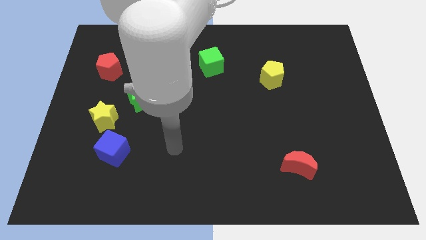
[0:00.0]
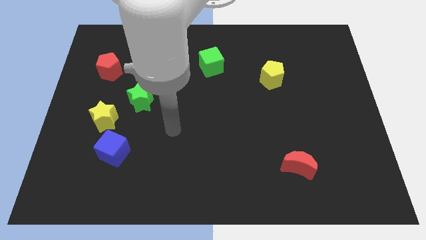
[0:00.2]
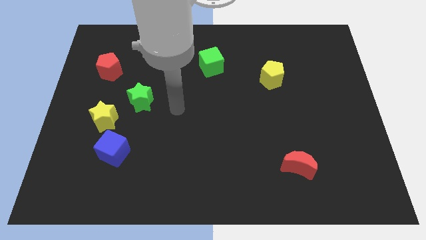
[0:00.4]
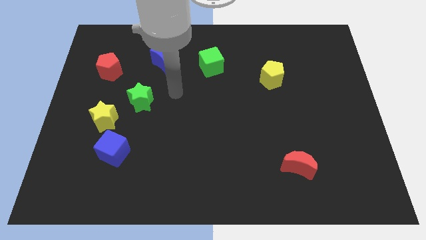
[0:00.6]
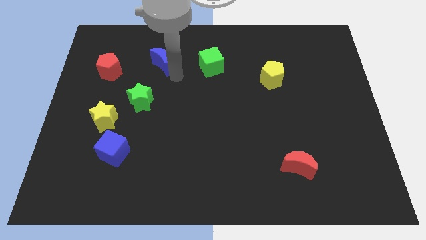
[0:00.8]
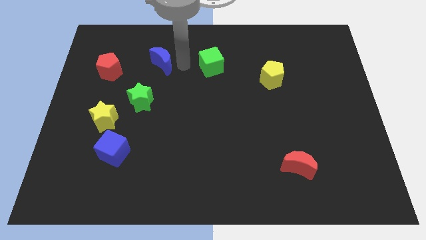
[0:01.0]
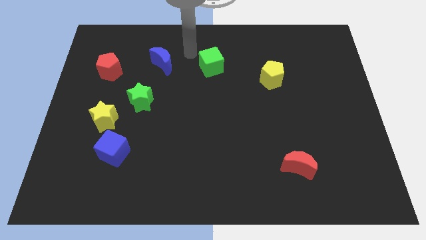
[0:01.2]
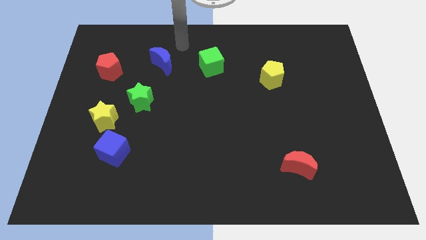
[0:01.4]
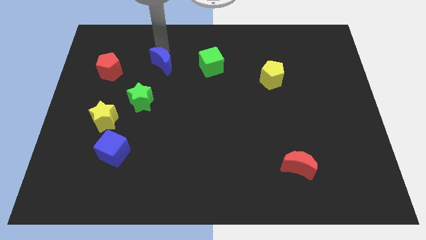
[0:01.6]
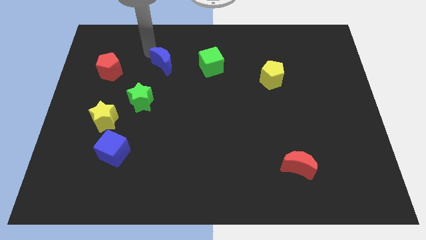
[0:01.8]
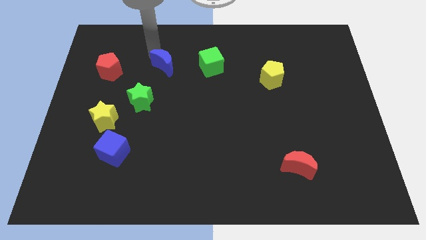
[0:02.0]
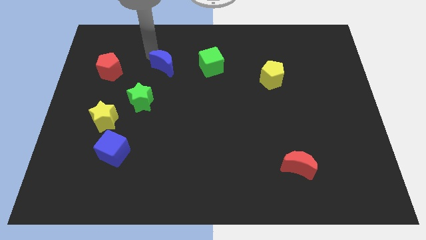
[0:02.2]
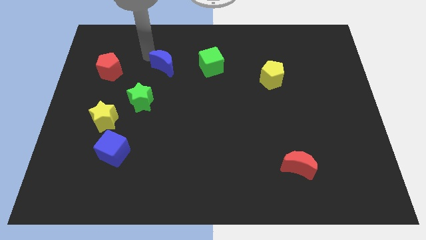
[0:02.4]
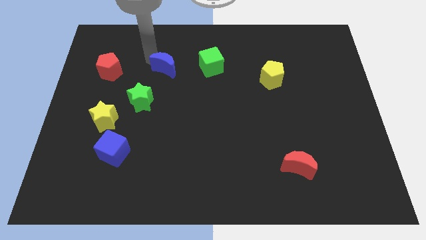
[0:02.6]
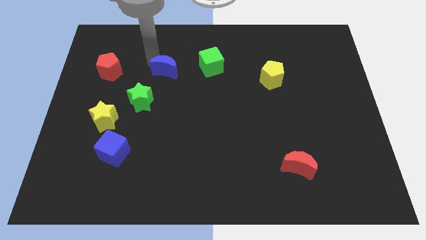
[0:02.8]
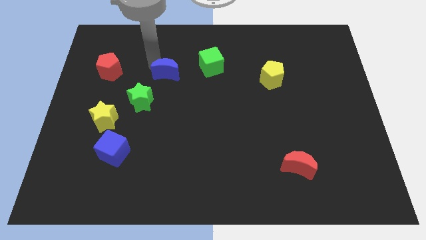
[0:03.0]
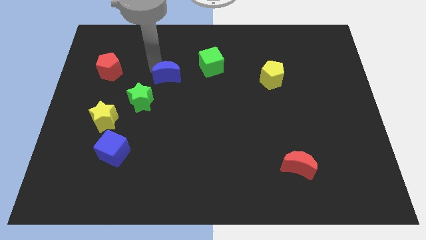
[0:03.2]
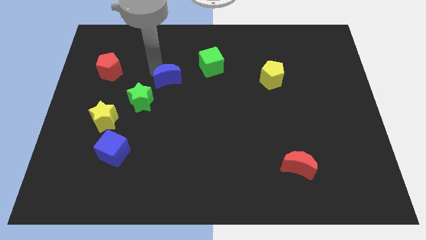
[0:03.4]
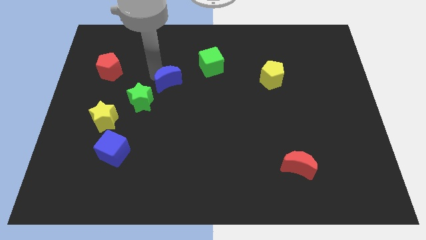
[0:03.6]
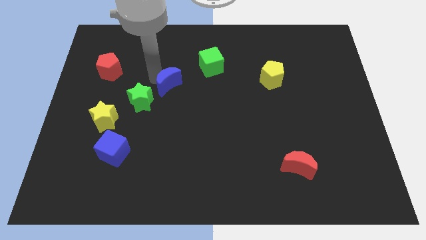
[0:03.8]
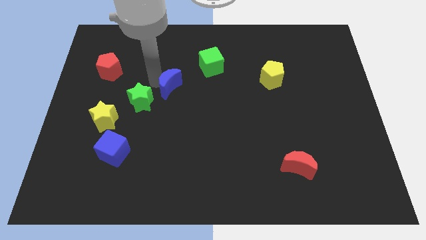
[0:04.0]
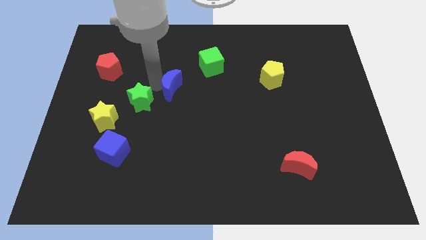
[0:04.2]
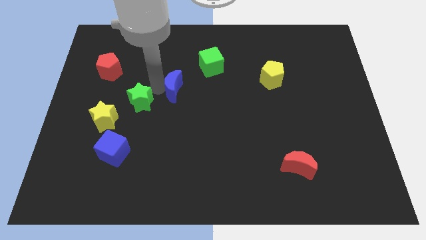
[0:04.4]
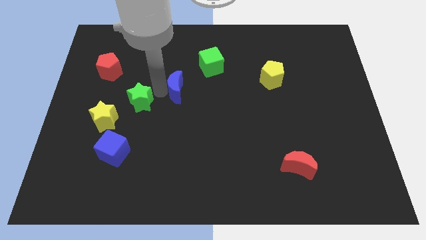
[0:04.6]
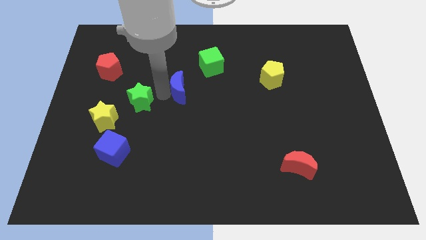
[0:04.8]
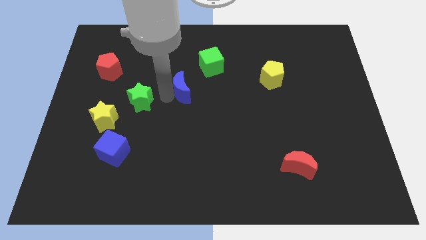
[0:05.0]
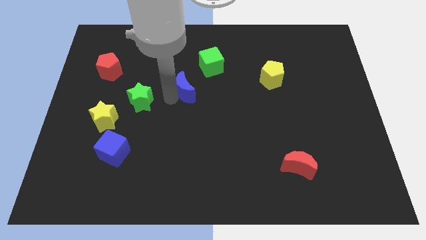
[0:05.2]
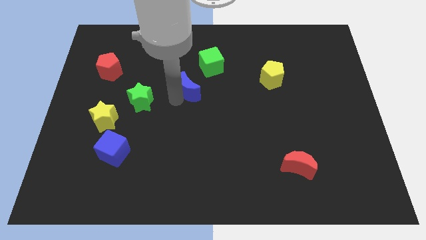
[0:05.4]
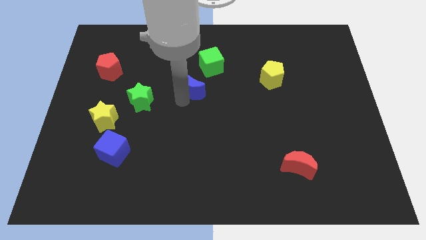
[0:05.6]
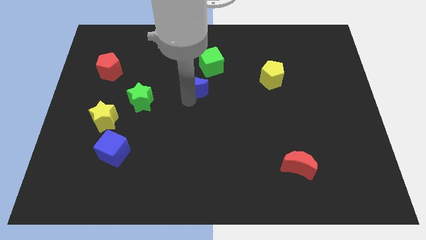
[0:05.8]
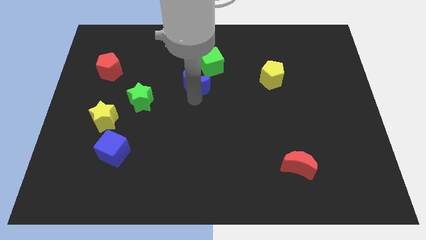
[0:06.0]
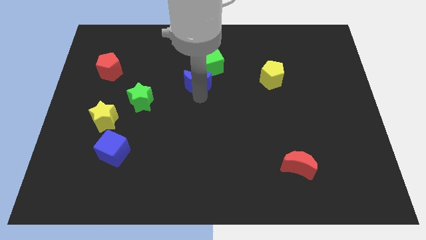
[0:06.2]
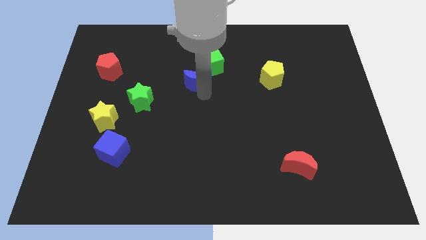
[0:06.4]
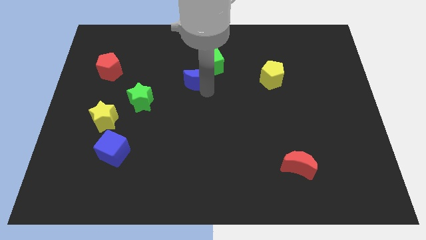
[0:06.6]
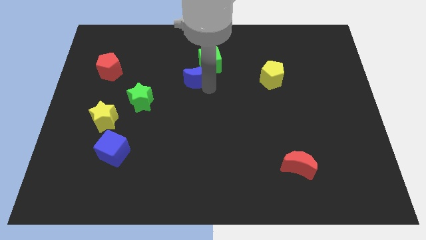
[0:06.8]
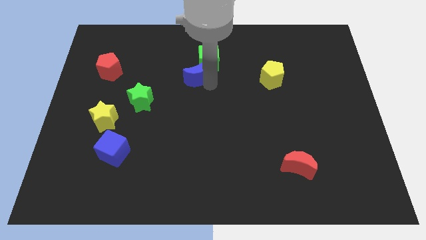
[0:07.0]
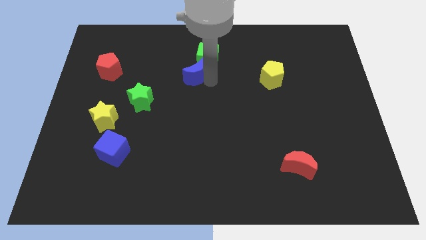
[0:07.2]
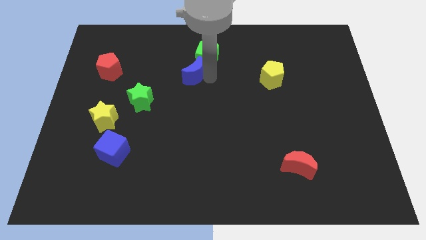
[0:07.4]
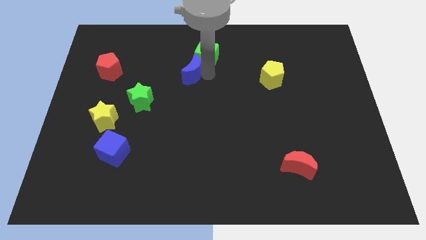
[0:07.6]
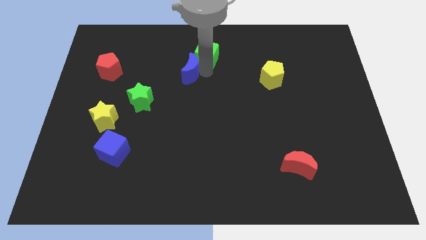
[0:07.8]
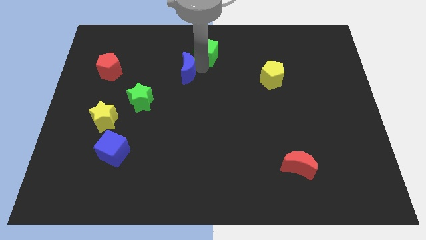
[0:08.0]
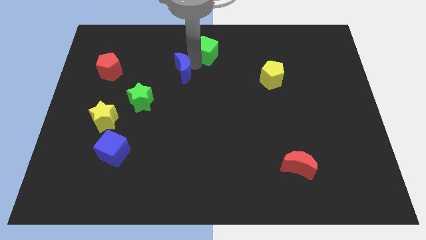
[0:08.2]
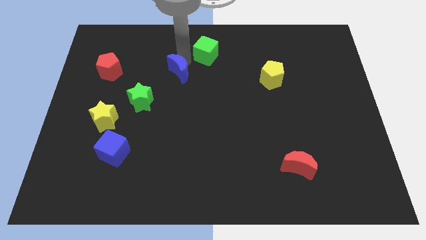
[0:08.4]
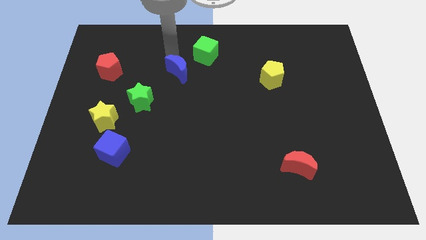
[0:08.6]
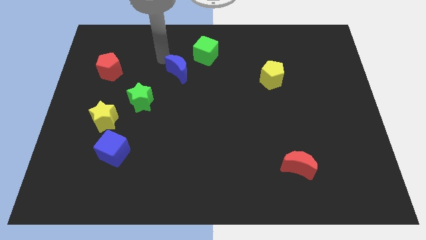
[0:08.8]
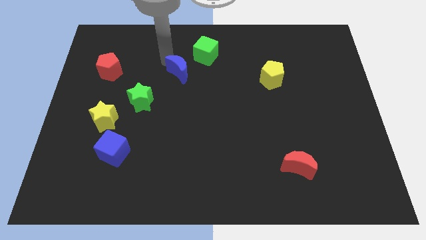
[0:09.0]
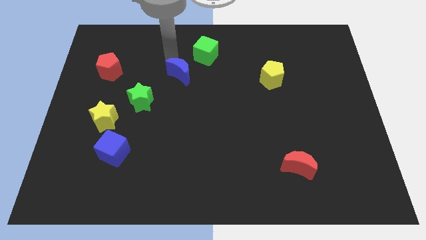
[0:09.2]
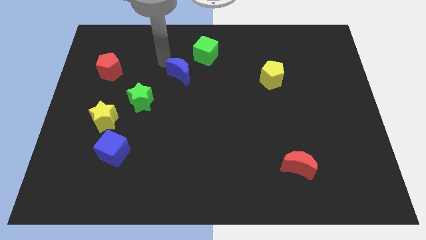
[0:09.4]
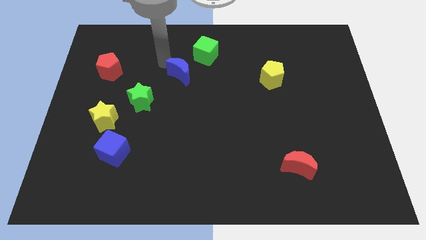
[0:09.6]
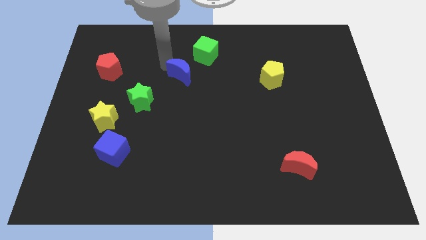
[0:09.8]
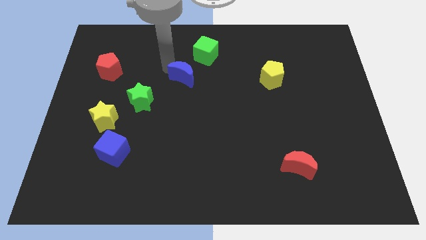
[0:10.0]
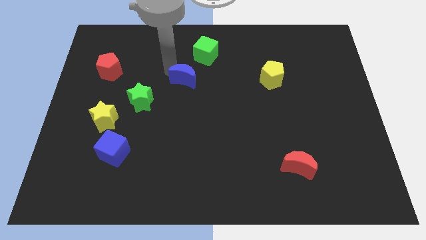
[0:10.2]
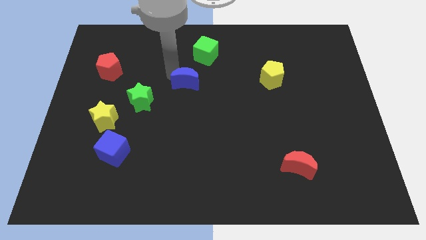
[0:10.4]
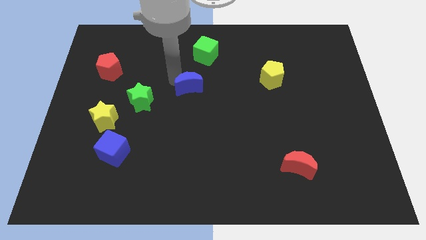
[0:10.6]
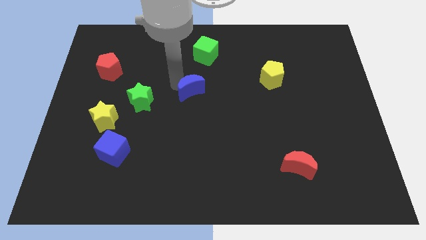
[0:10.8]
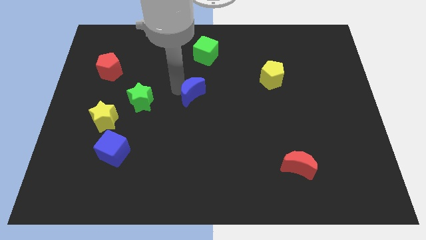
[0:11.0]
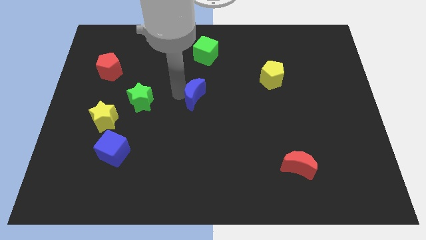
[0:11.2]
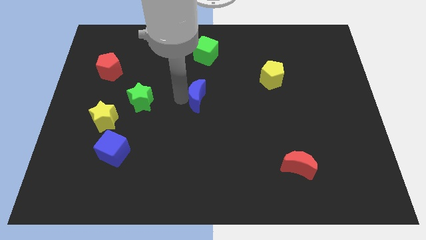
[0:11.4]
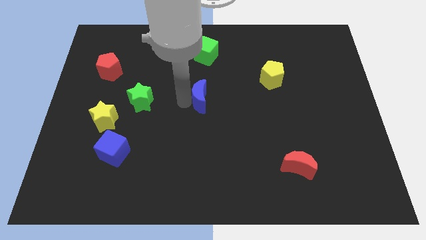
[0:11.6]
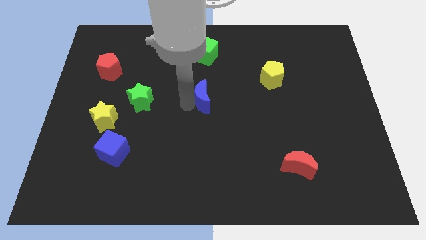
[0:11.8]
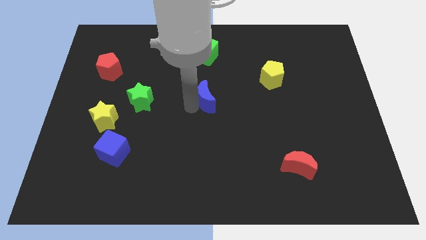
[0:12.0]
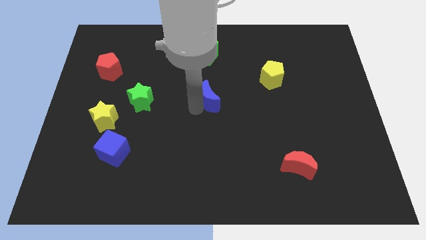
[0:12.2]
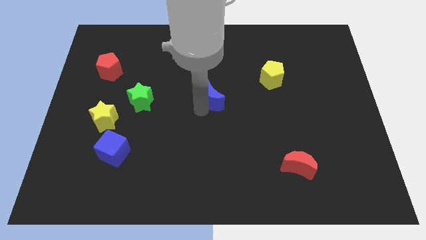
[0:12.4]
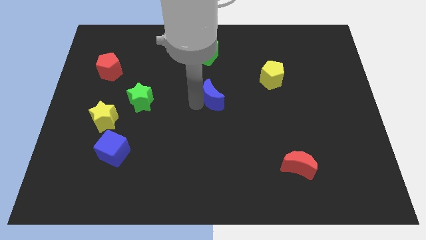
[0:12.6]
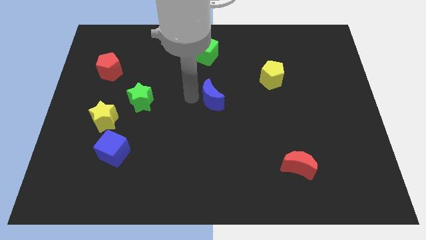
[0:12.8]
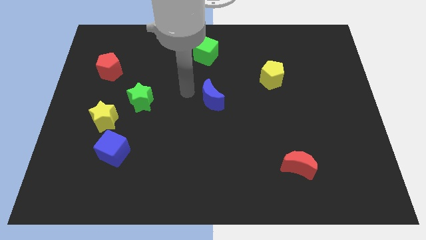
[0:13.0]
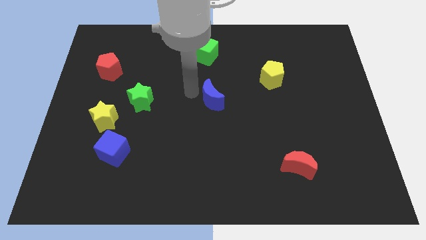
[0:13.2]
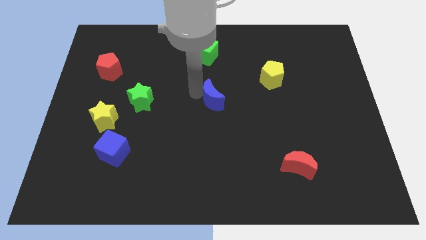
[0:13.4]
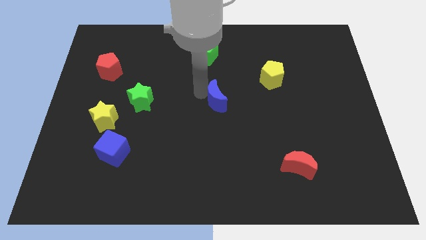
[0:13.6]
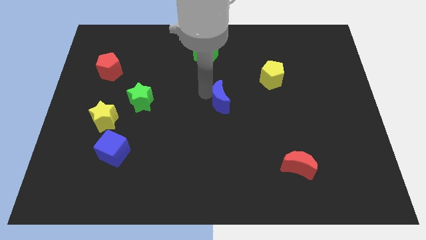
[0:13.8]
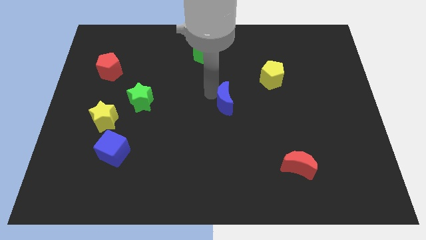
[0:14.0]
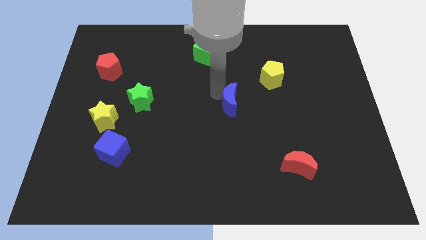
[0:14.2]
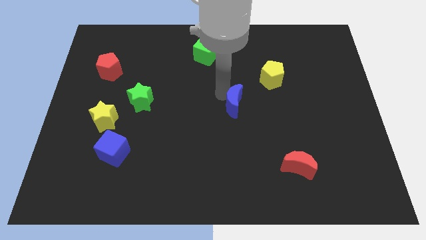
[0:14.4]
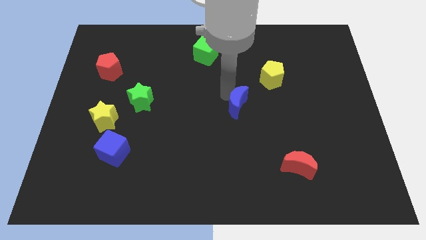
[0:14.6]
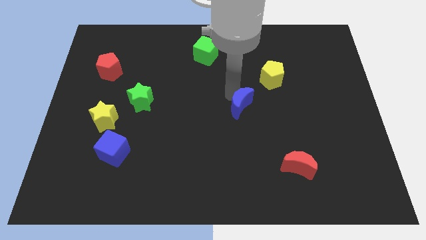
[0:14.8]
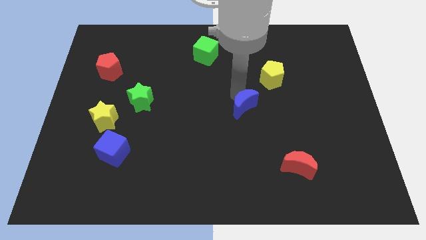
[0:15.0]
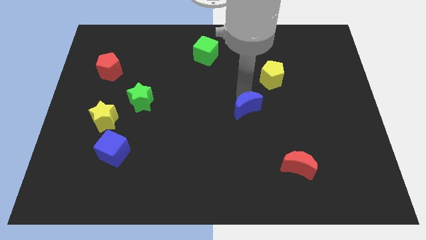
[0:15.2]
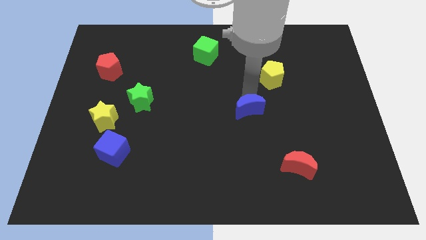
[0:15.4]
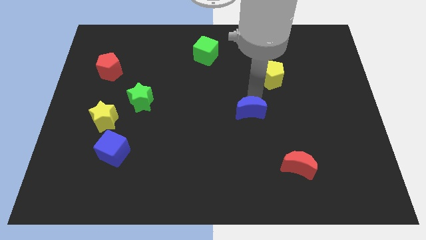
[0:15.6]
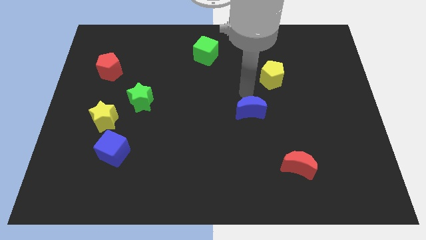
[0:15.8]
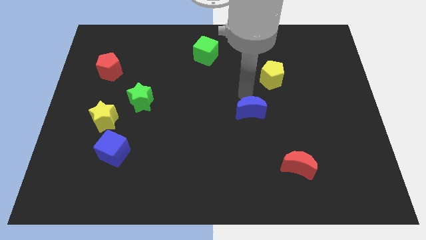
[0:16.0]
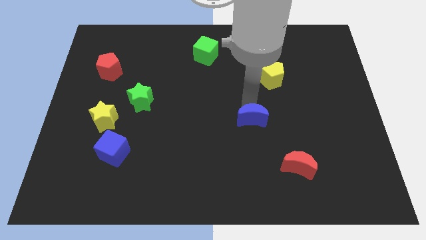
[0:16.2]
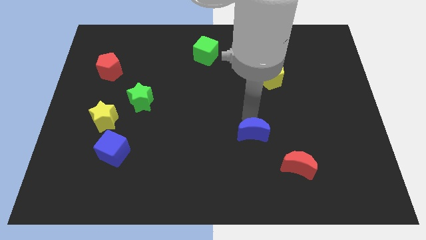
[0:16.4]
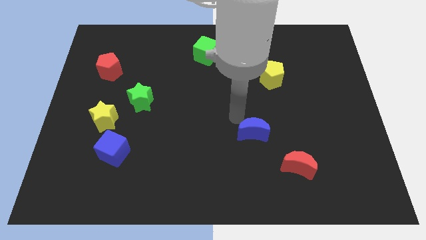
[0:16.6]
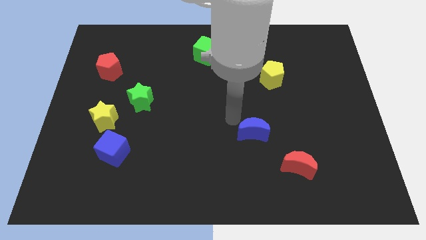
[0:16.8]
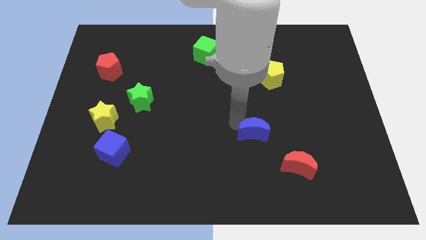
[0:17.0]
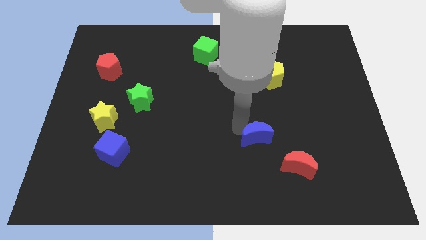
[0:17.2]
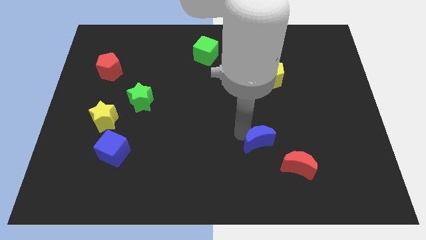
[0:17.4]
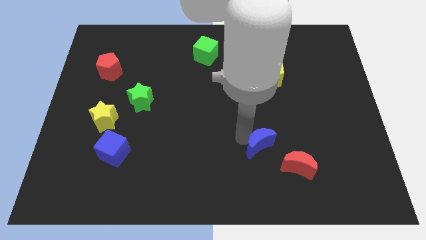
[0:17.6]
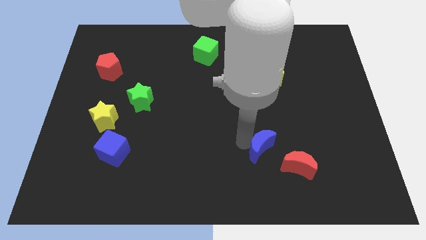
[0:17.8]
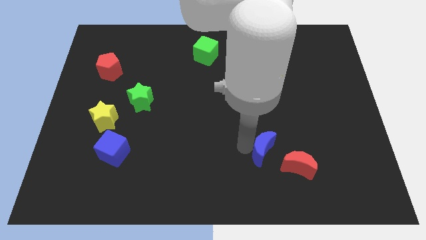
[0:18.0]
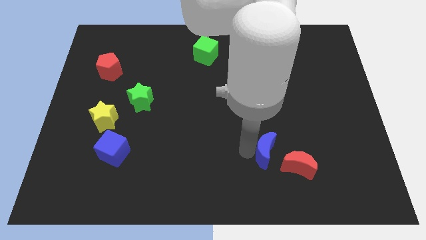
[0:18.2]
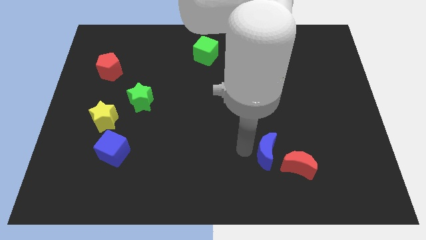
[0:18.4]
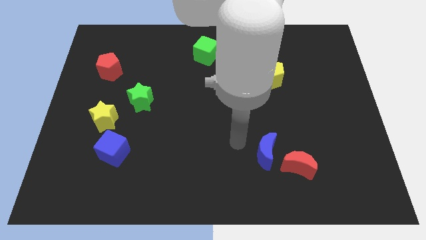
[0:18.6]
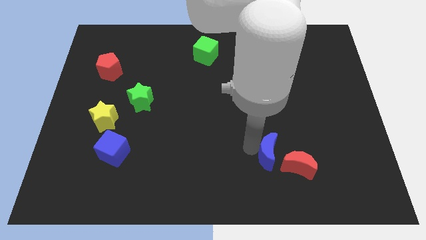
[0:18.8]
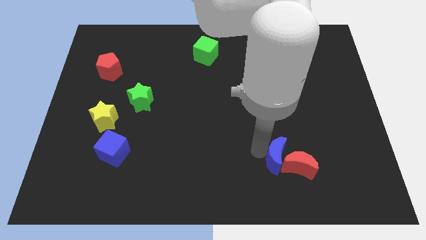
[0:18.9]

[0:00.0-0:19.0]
put the blue moon towards the red moon
